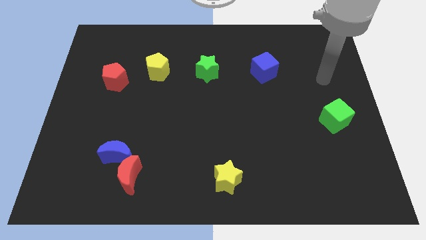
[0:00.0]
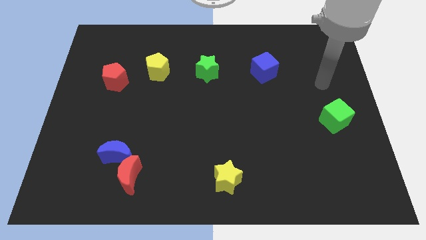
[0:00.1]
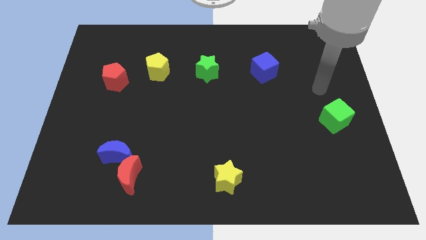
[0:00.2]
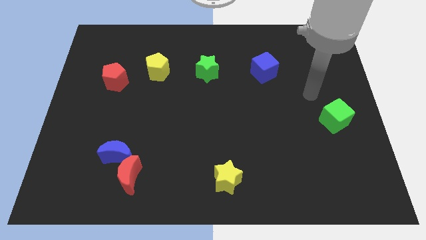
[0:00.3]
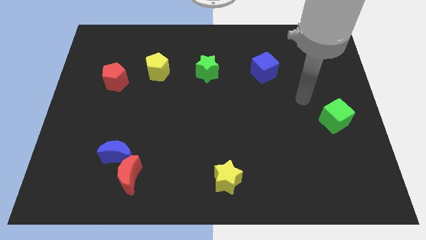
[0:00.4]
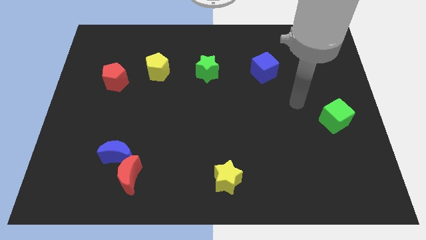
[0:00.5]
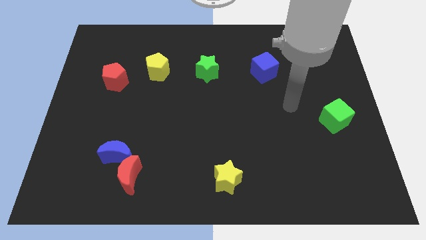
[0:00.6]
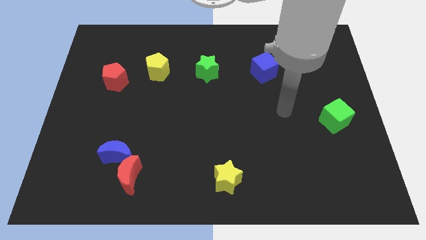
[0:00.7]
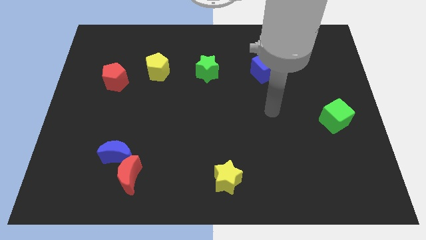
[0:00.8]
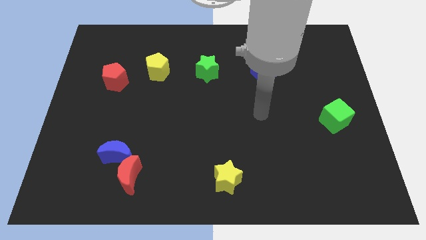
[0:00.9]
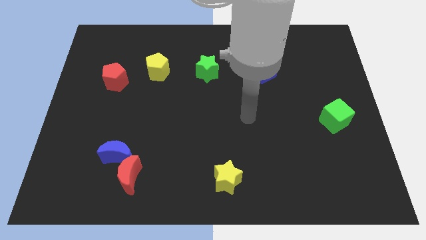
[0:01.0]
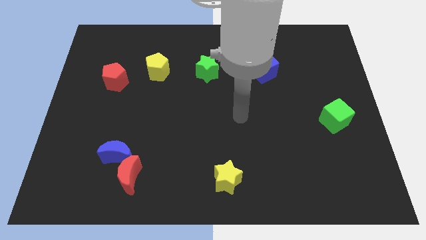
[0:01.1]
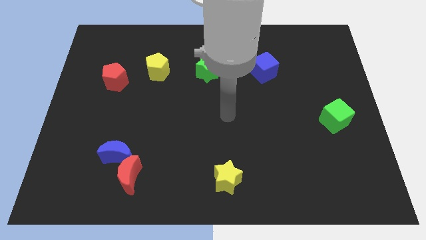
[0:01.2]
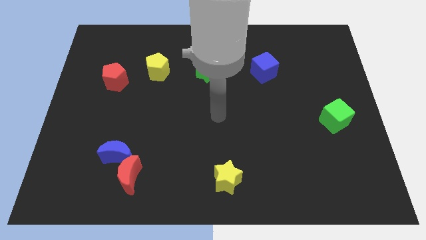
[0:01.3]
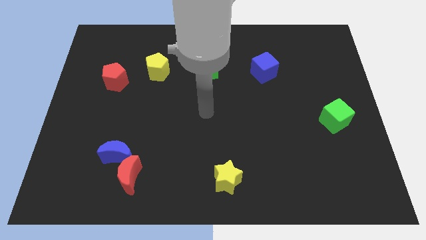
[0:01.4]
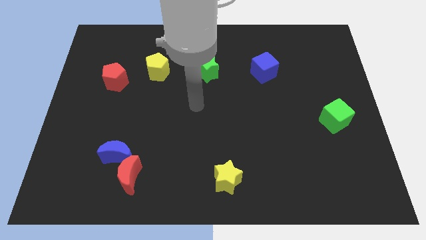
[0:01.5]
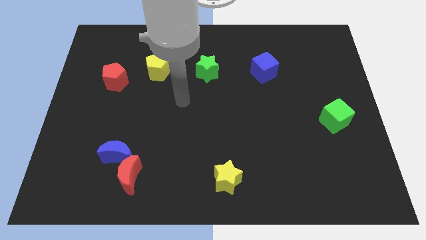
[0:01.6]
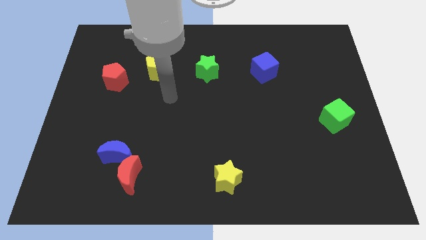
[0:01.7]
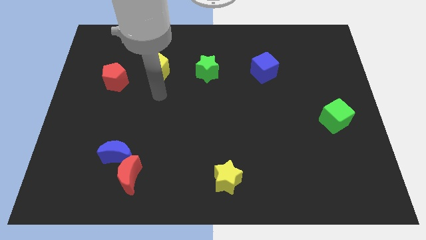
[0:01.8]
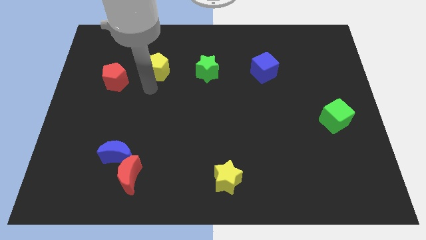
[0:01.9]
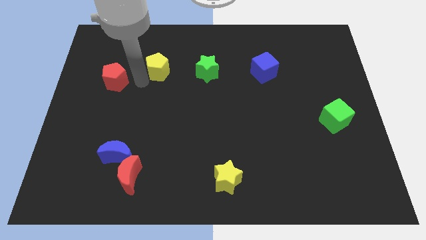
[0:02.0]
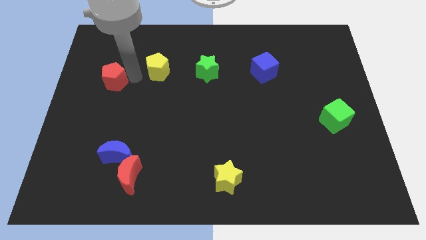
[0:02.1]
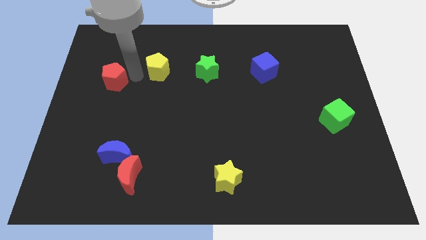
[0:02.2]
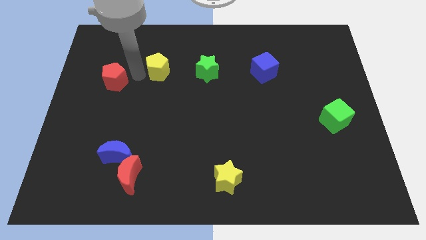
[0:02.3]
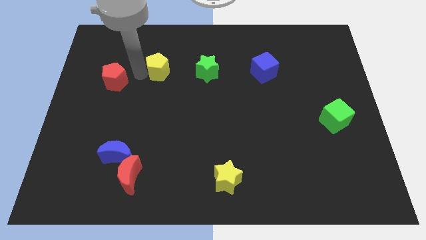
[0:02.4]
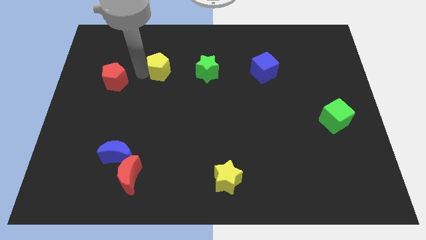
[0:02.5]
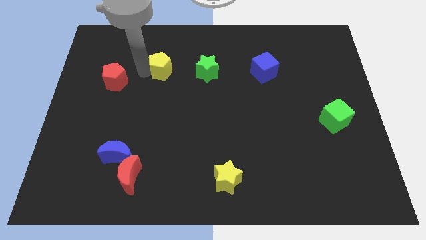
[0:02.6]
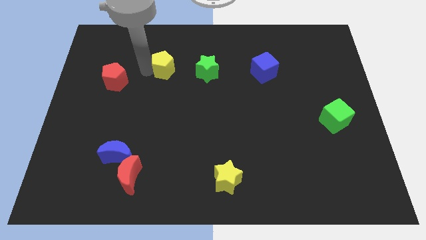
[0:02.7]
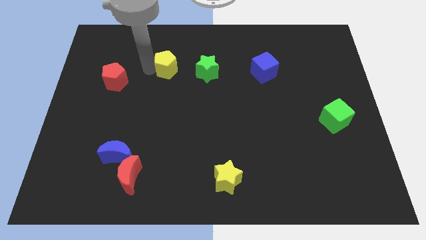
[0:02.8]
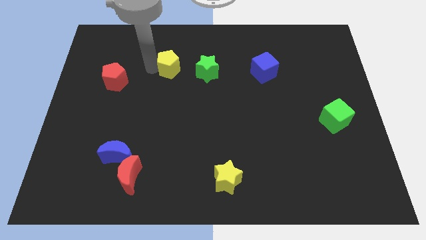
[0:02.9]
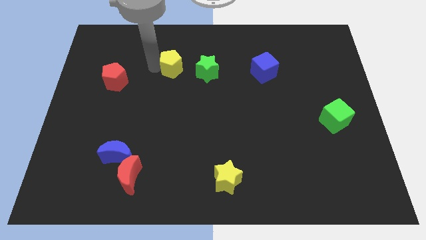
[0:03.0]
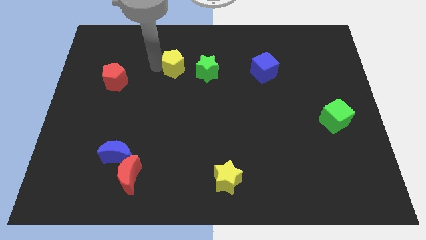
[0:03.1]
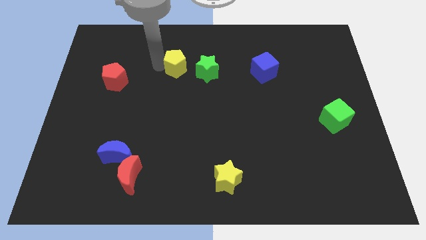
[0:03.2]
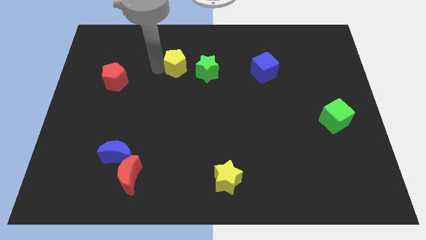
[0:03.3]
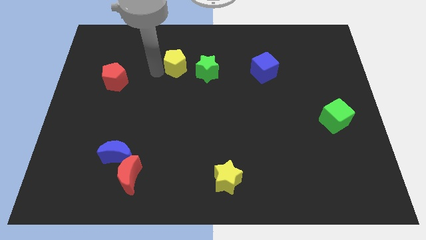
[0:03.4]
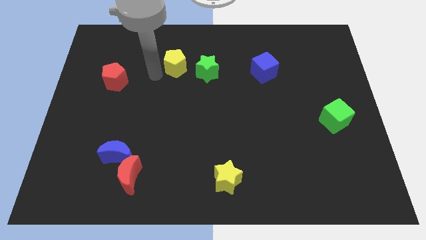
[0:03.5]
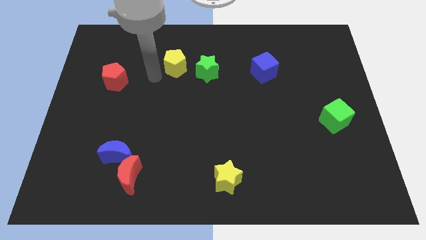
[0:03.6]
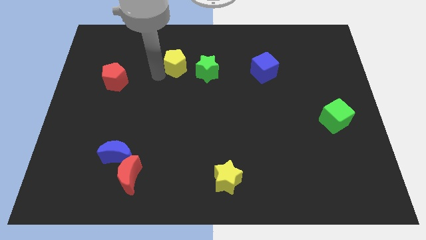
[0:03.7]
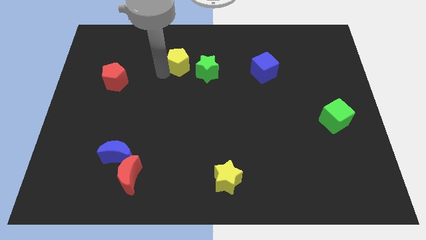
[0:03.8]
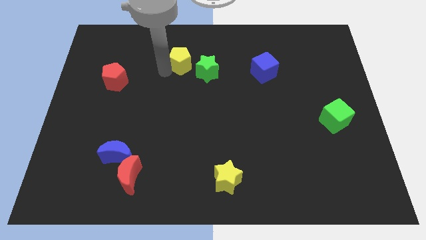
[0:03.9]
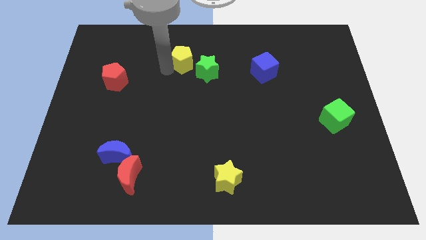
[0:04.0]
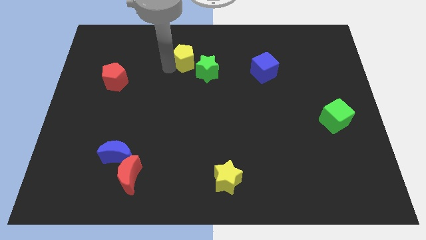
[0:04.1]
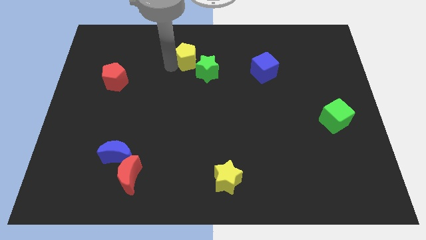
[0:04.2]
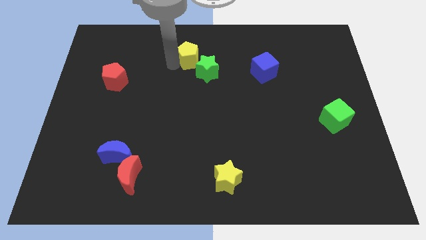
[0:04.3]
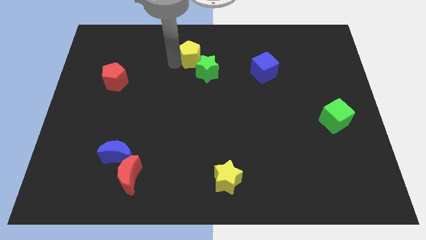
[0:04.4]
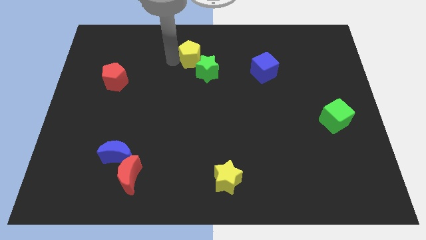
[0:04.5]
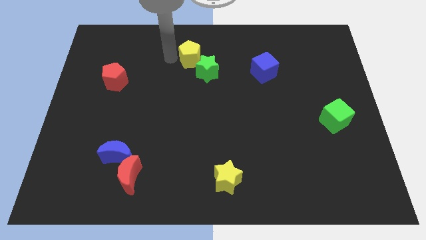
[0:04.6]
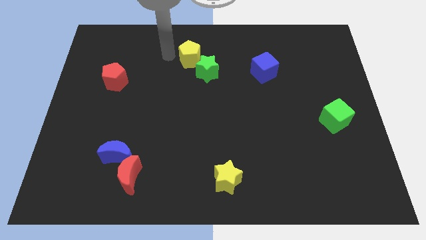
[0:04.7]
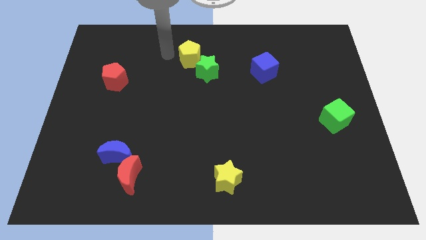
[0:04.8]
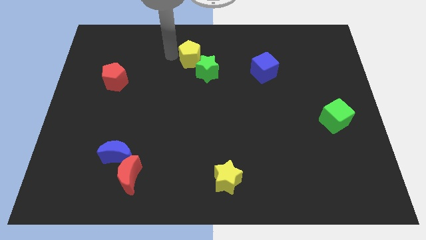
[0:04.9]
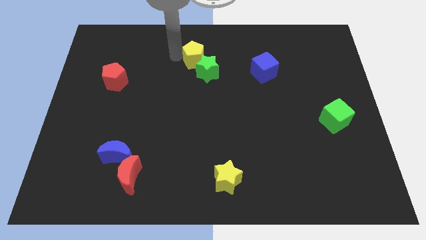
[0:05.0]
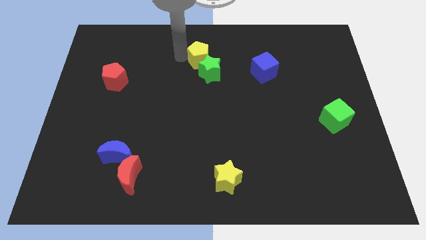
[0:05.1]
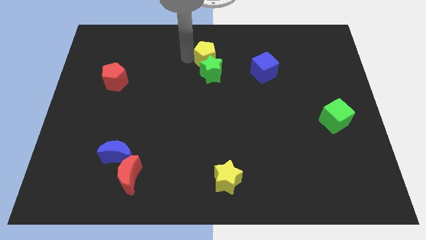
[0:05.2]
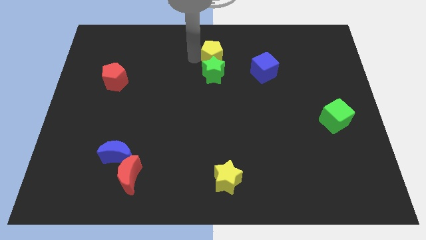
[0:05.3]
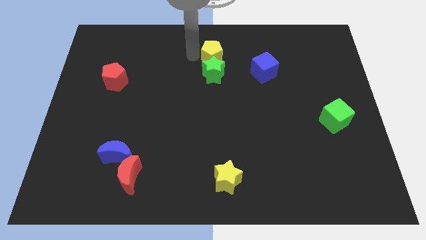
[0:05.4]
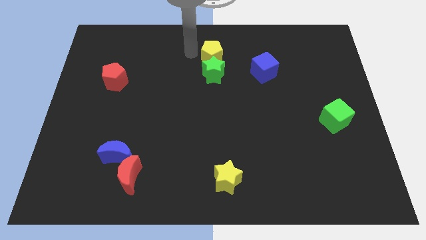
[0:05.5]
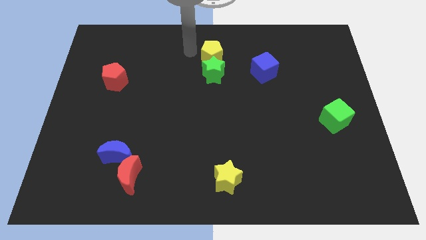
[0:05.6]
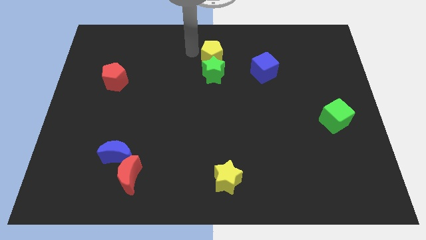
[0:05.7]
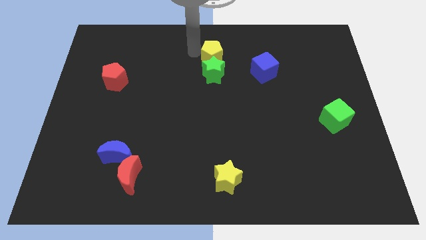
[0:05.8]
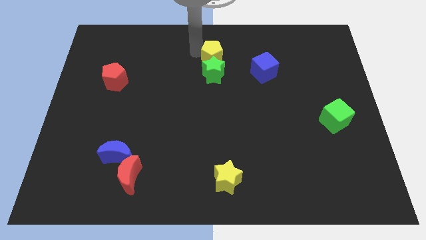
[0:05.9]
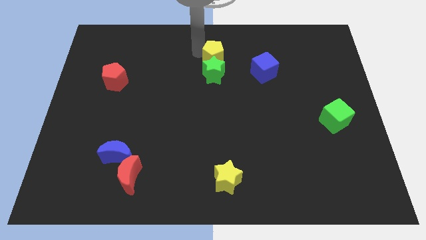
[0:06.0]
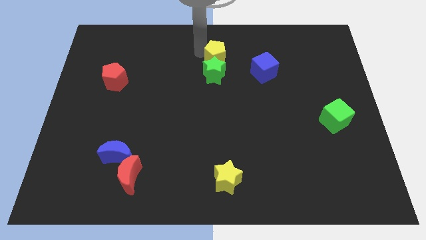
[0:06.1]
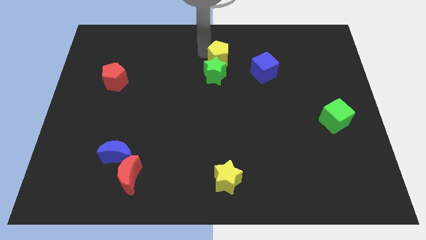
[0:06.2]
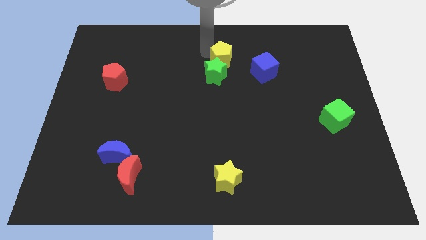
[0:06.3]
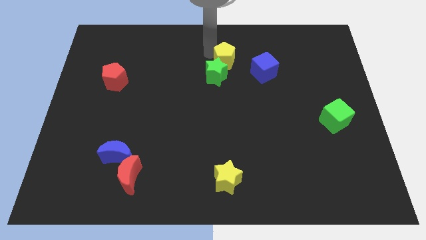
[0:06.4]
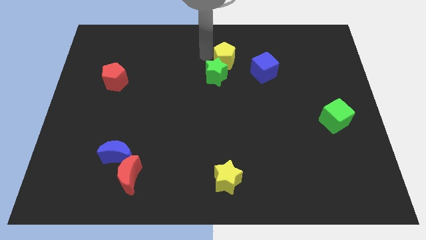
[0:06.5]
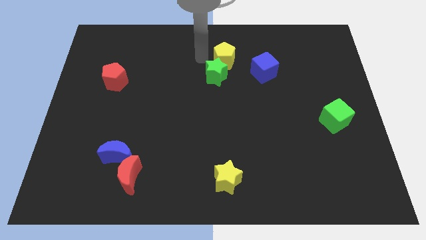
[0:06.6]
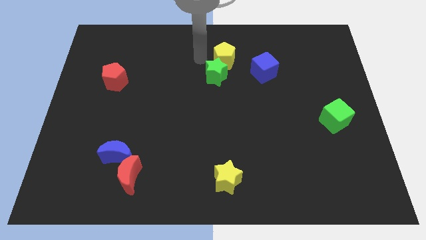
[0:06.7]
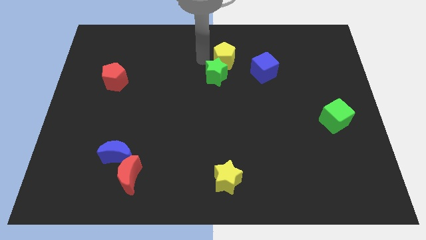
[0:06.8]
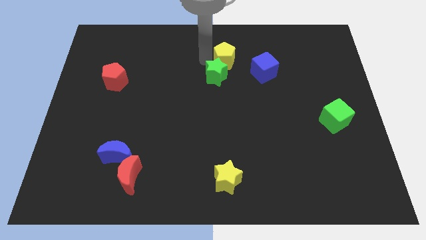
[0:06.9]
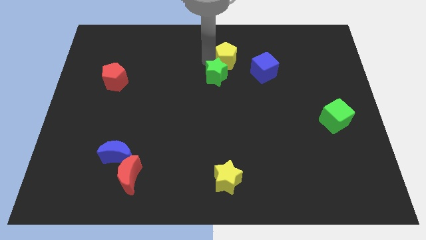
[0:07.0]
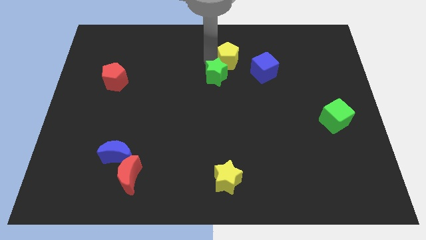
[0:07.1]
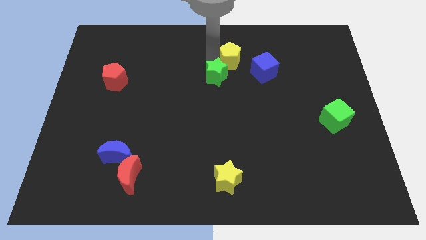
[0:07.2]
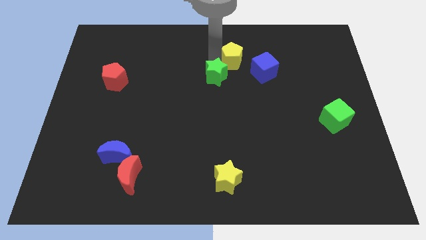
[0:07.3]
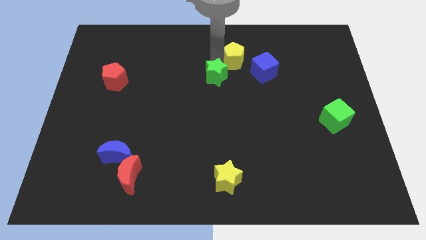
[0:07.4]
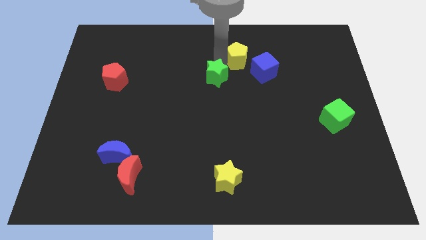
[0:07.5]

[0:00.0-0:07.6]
move the yellow pentagon right

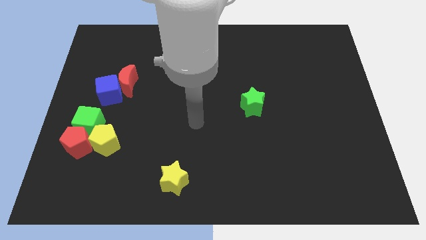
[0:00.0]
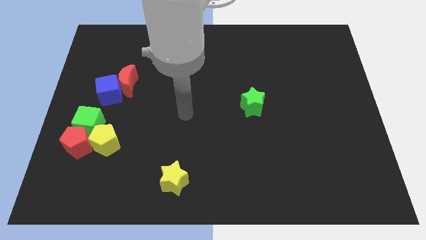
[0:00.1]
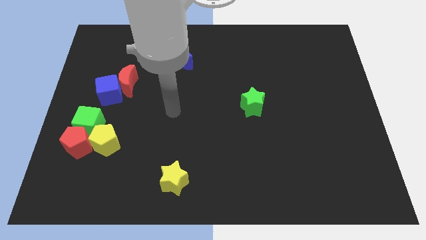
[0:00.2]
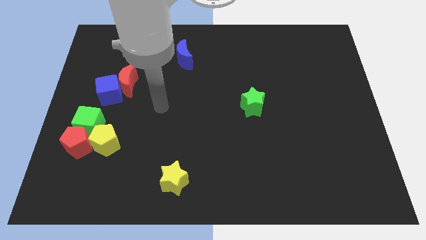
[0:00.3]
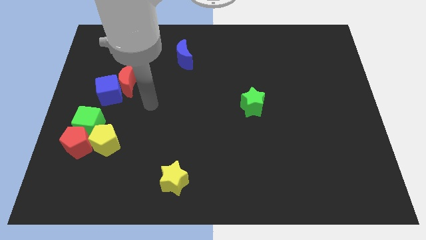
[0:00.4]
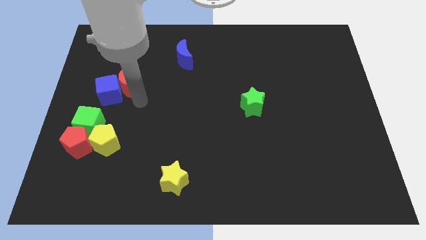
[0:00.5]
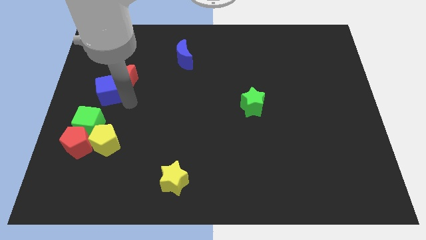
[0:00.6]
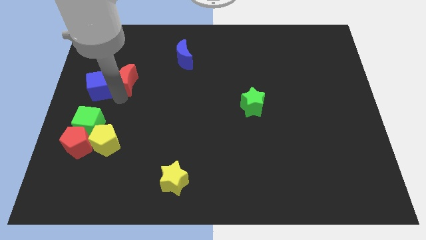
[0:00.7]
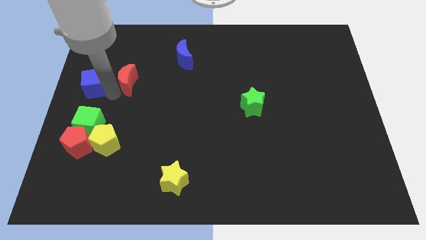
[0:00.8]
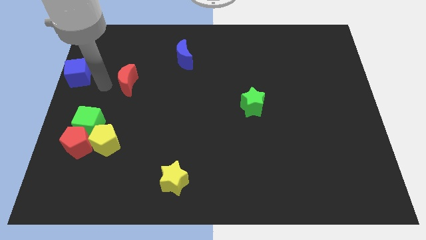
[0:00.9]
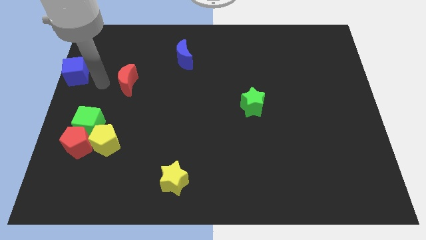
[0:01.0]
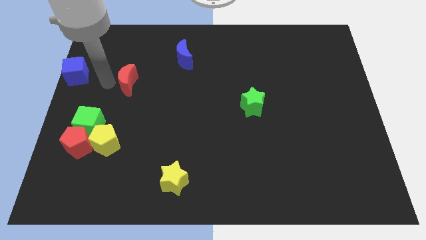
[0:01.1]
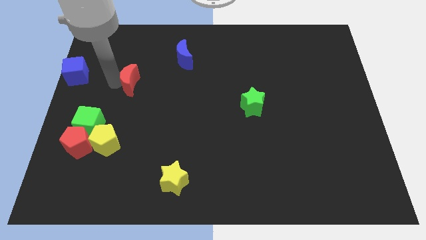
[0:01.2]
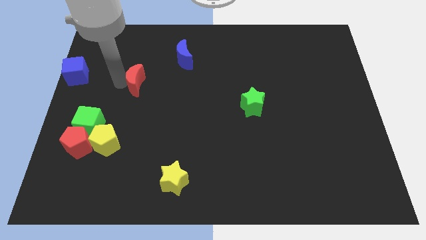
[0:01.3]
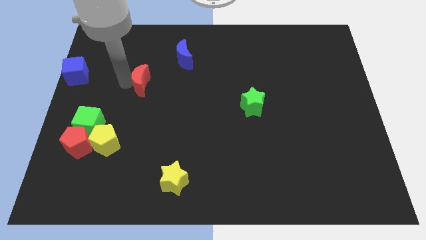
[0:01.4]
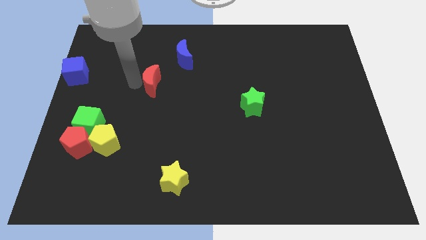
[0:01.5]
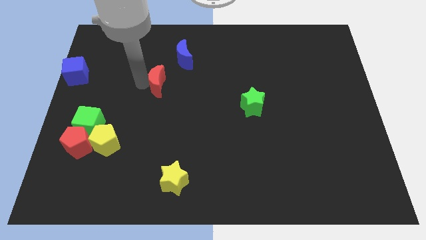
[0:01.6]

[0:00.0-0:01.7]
slightly slide the red moon to the right
